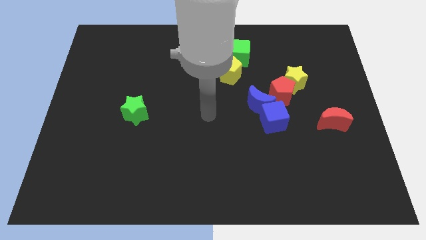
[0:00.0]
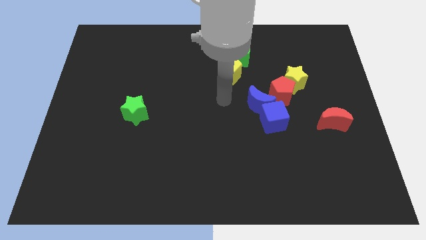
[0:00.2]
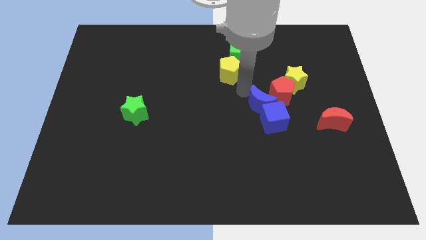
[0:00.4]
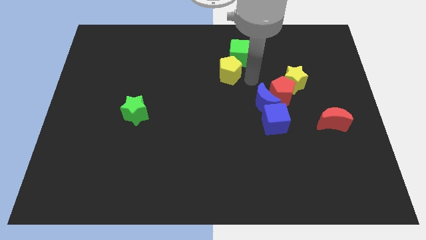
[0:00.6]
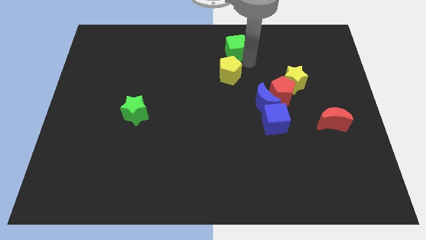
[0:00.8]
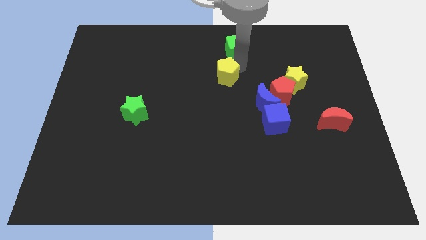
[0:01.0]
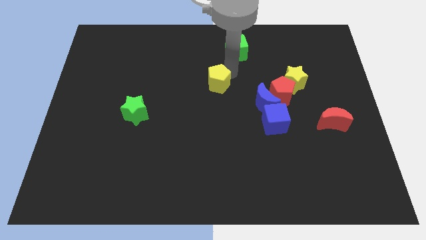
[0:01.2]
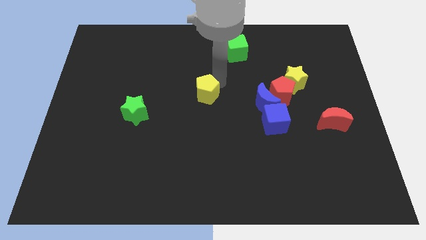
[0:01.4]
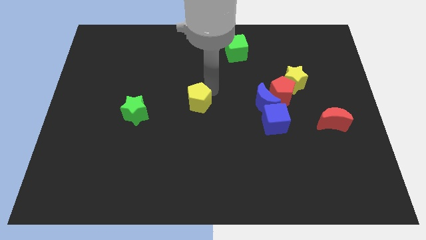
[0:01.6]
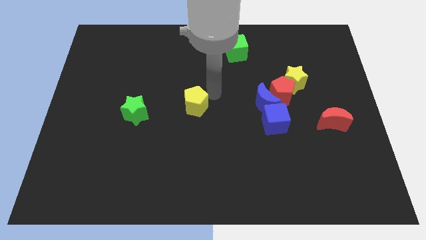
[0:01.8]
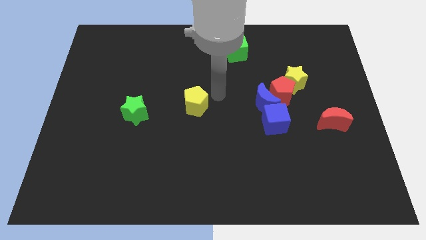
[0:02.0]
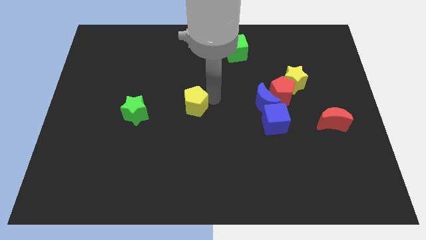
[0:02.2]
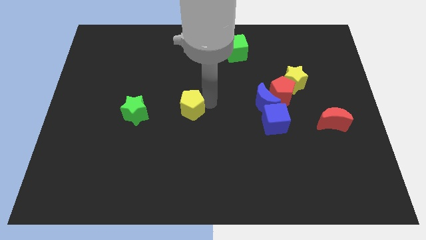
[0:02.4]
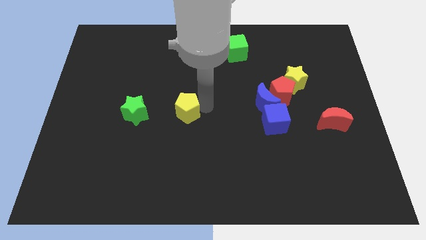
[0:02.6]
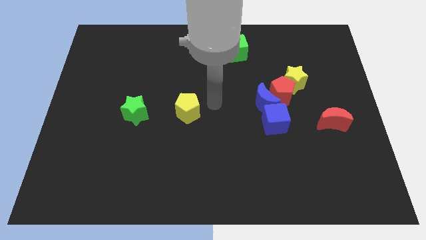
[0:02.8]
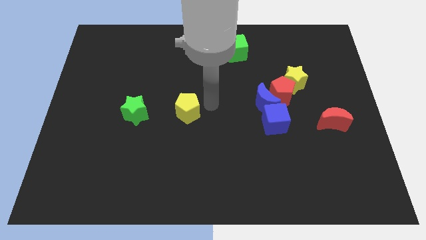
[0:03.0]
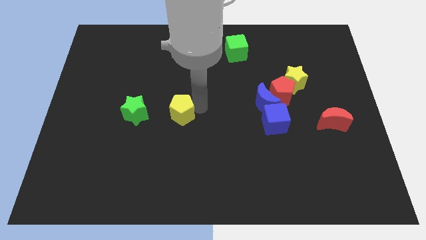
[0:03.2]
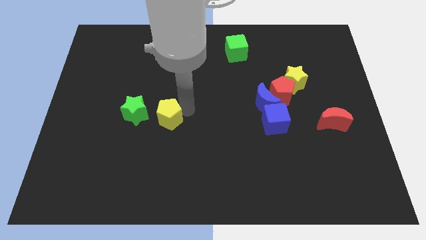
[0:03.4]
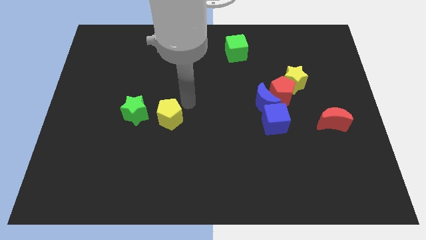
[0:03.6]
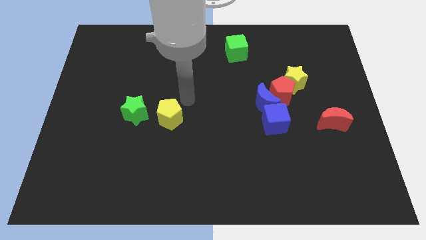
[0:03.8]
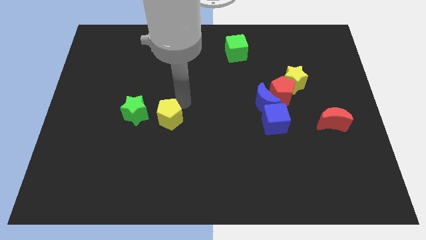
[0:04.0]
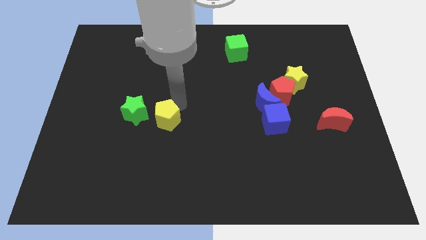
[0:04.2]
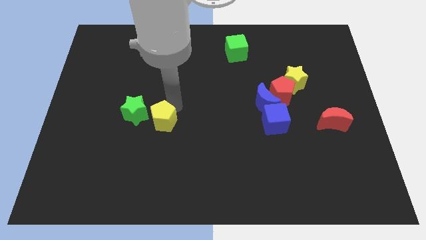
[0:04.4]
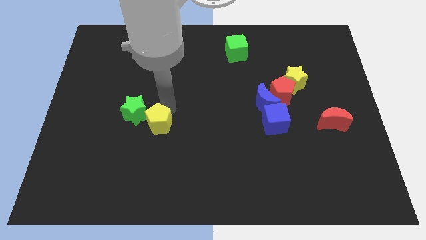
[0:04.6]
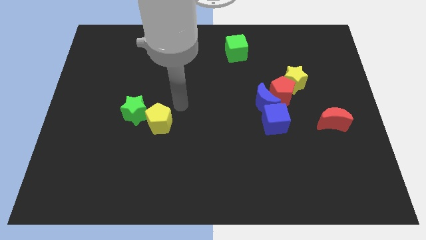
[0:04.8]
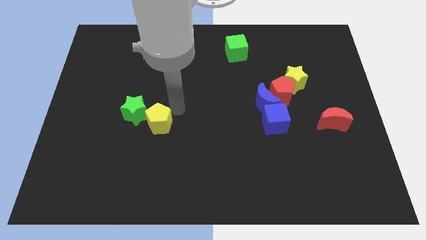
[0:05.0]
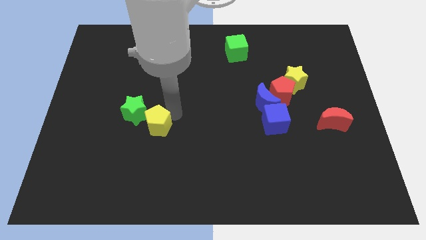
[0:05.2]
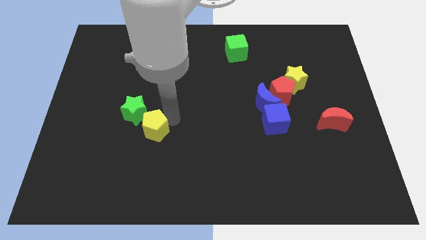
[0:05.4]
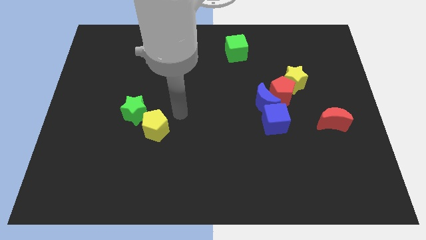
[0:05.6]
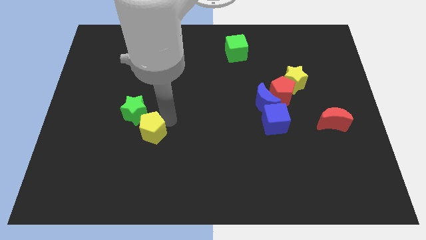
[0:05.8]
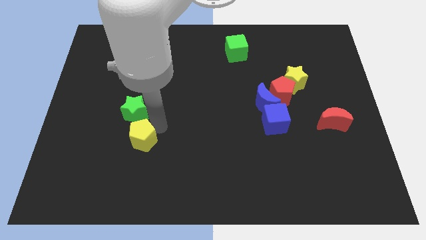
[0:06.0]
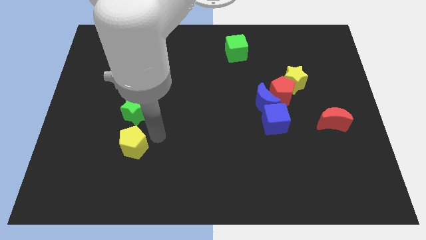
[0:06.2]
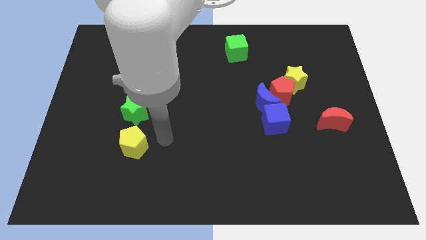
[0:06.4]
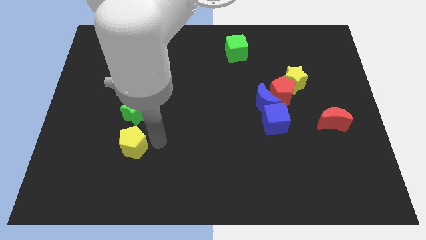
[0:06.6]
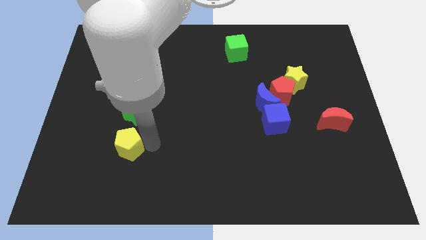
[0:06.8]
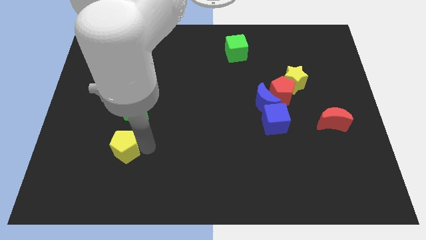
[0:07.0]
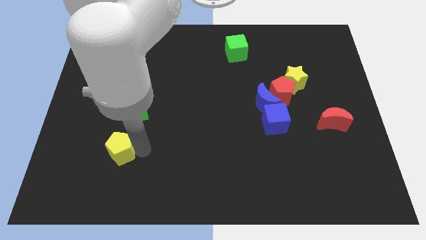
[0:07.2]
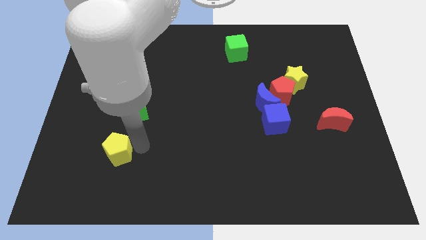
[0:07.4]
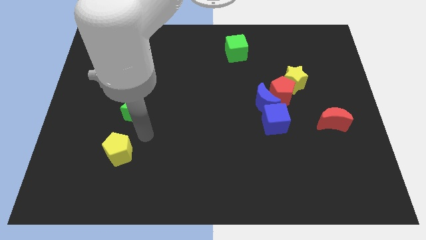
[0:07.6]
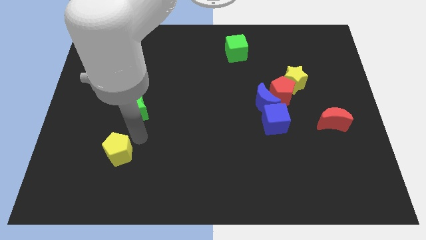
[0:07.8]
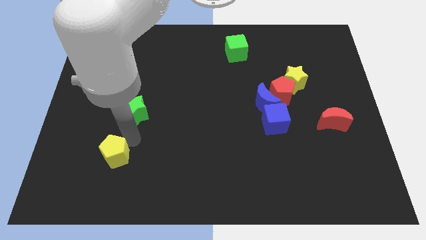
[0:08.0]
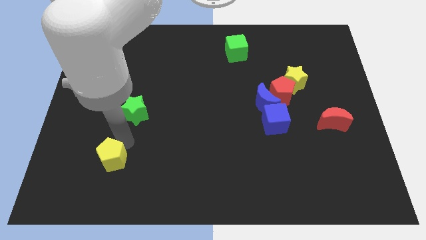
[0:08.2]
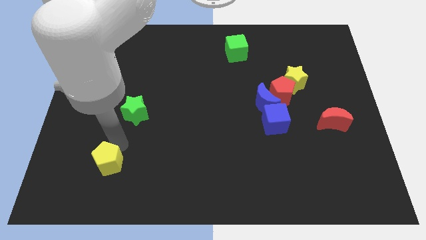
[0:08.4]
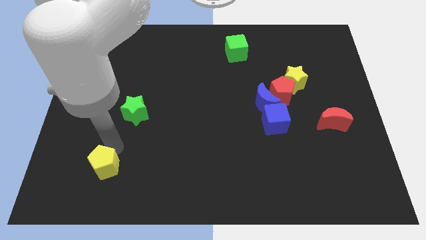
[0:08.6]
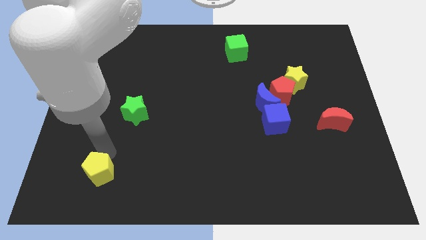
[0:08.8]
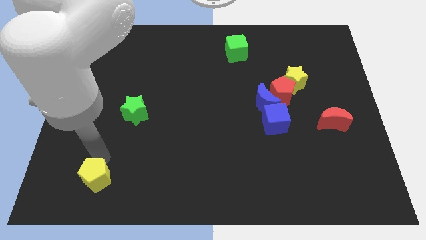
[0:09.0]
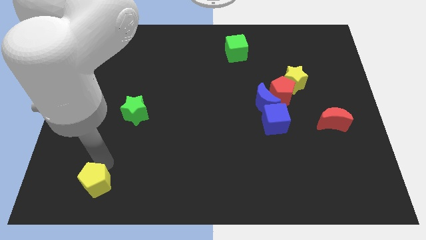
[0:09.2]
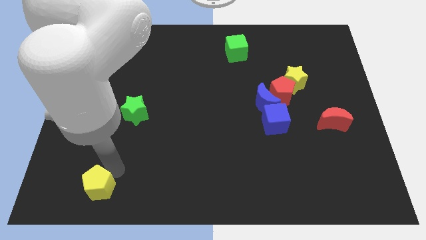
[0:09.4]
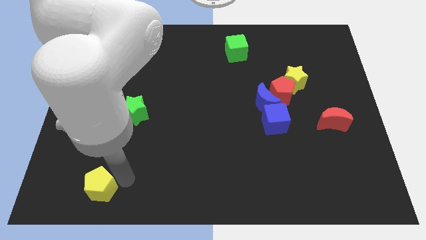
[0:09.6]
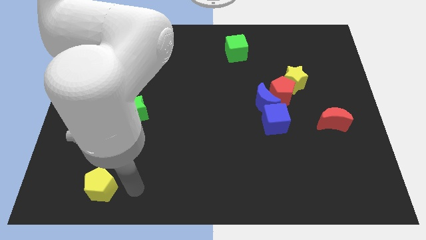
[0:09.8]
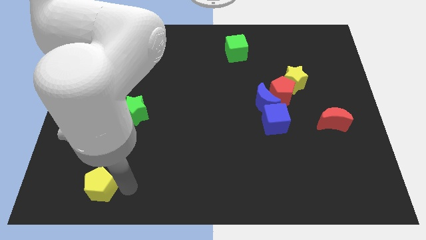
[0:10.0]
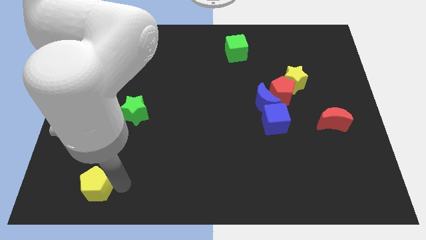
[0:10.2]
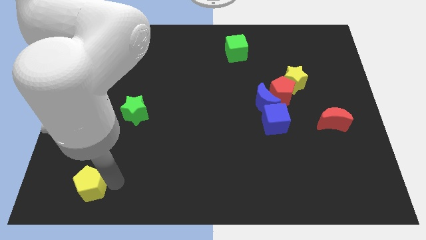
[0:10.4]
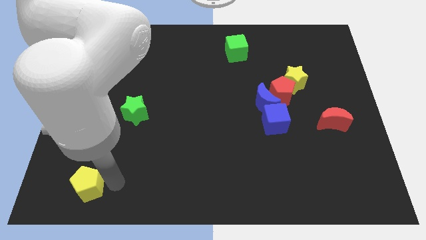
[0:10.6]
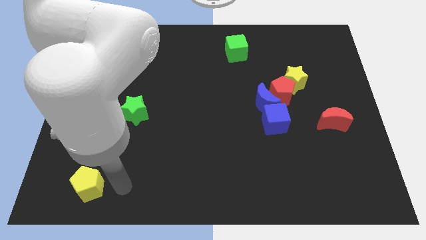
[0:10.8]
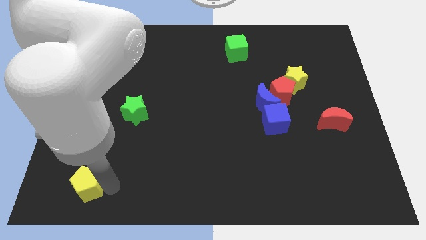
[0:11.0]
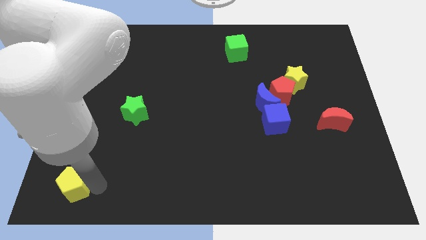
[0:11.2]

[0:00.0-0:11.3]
slide the yellow pentagon to the bottom left corner

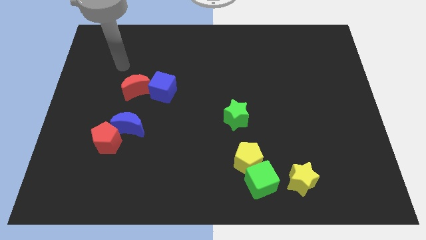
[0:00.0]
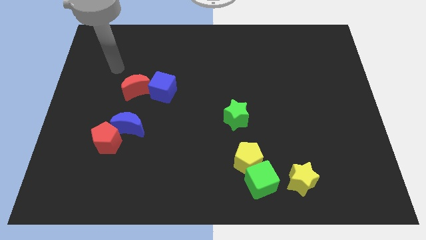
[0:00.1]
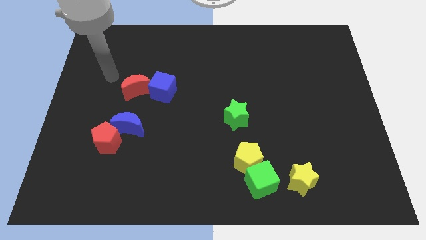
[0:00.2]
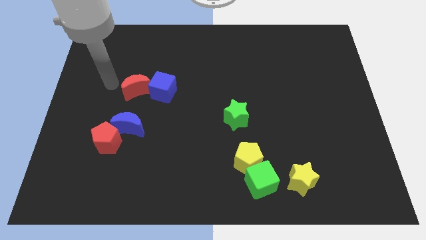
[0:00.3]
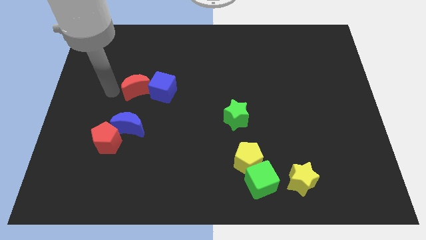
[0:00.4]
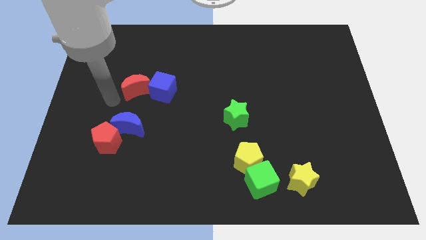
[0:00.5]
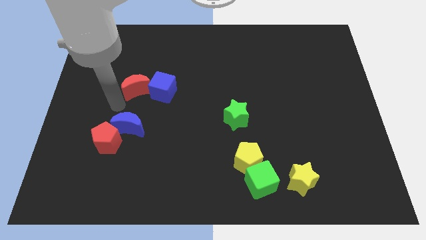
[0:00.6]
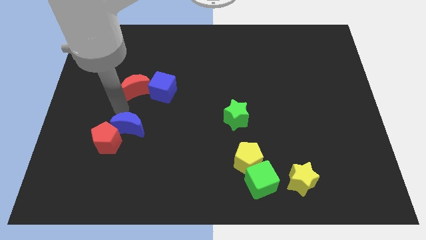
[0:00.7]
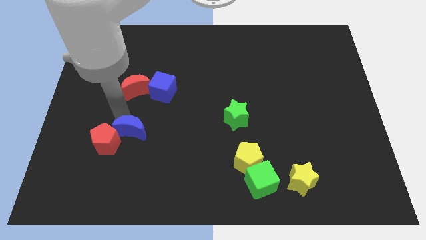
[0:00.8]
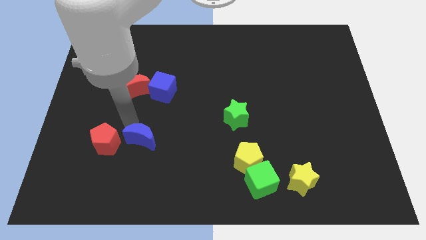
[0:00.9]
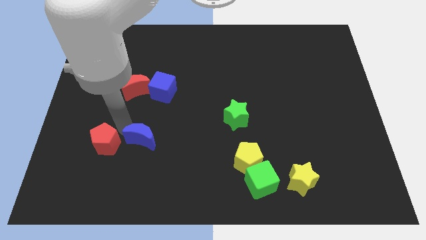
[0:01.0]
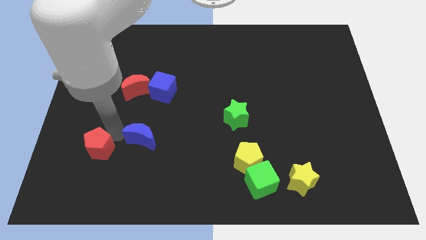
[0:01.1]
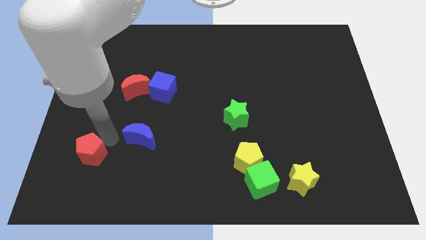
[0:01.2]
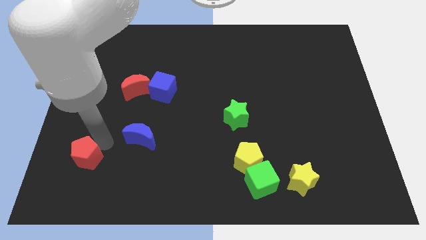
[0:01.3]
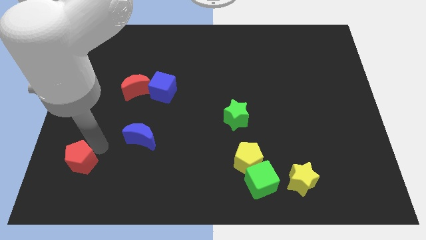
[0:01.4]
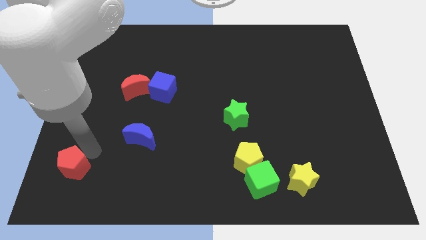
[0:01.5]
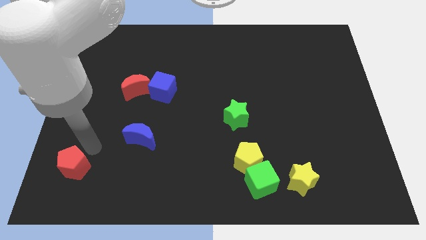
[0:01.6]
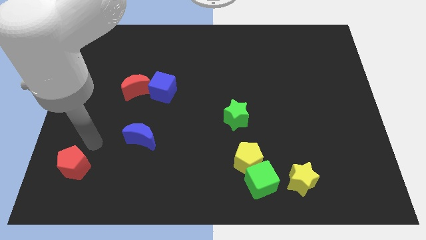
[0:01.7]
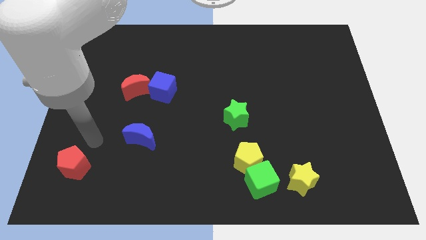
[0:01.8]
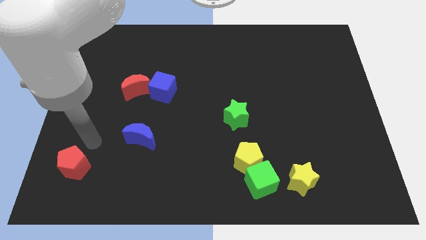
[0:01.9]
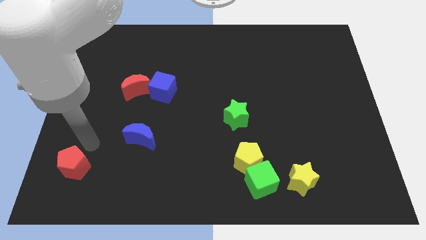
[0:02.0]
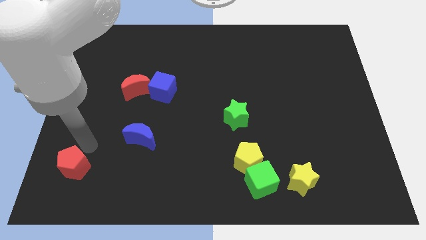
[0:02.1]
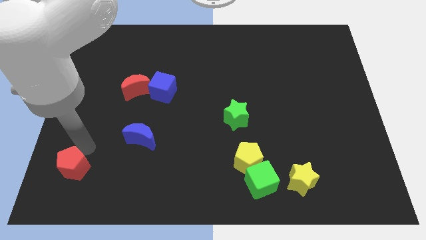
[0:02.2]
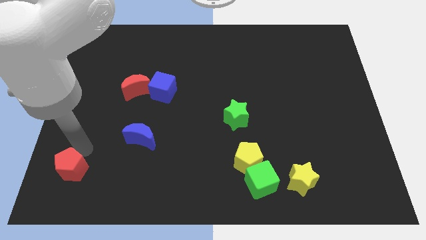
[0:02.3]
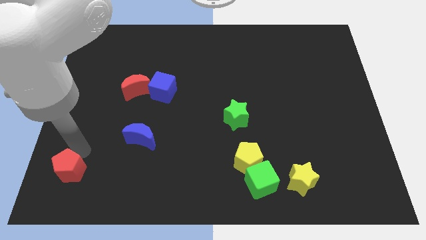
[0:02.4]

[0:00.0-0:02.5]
put the red pentagon to the lower left corner
